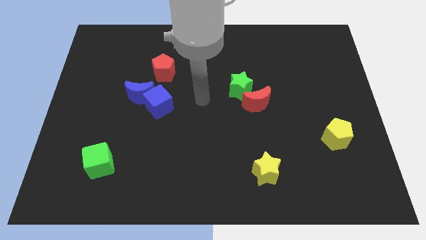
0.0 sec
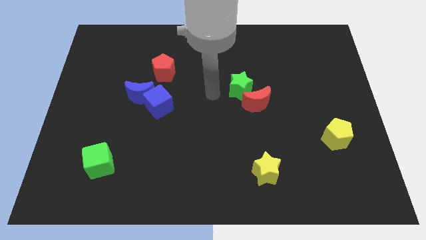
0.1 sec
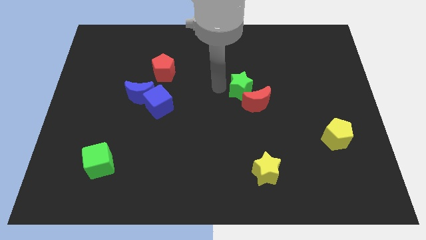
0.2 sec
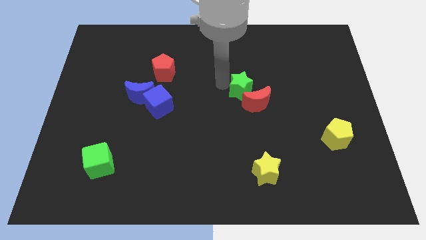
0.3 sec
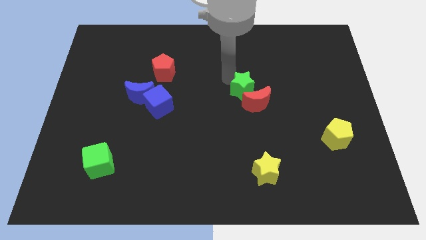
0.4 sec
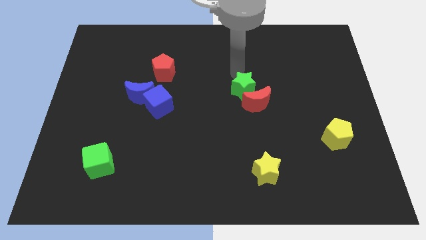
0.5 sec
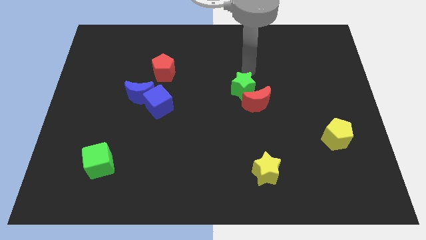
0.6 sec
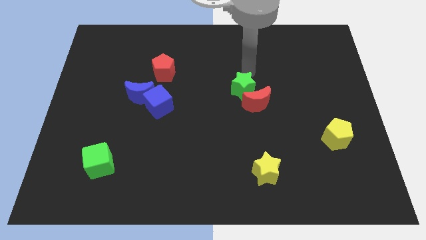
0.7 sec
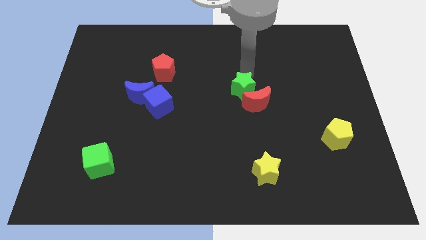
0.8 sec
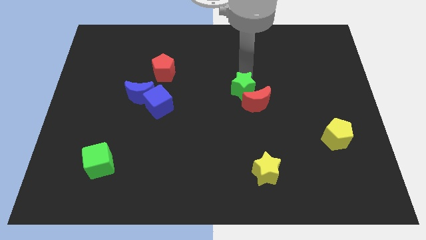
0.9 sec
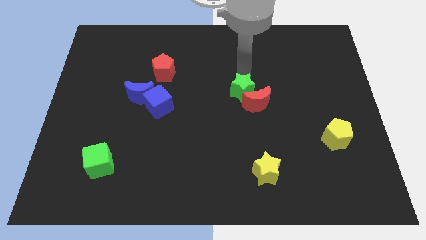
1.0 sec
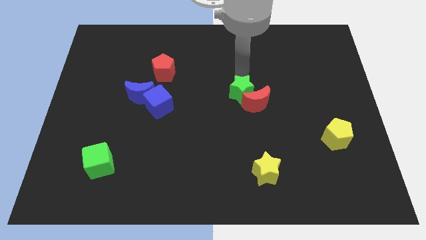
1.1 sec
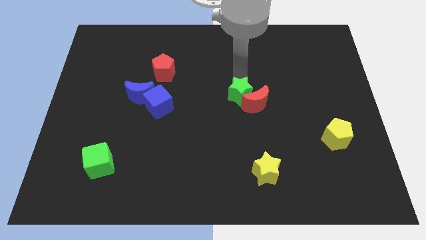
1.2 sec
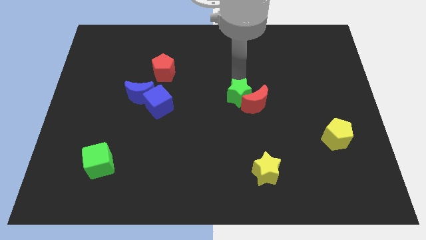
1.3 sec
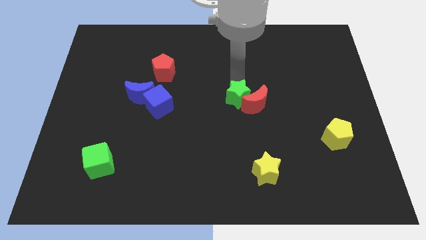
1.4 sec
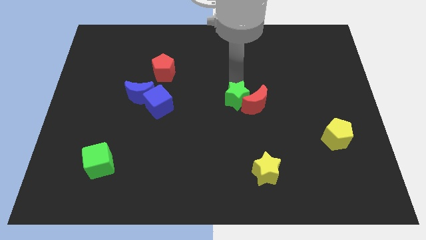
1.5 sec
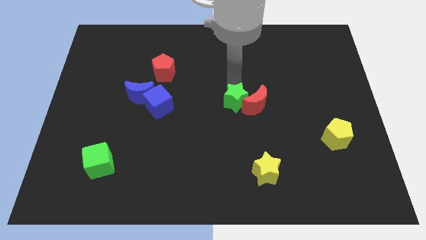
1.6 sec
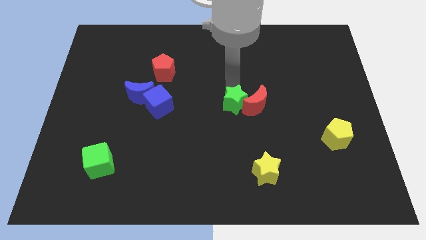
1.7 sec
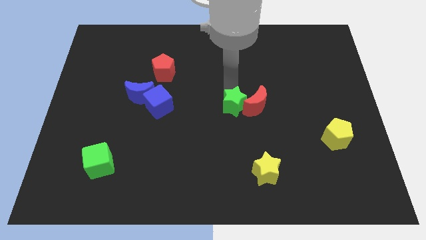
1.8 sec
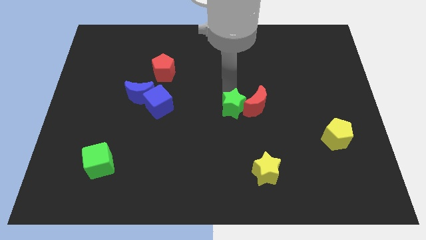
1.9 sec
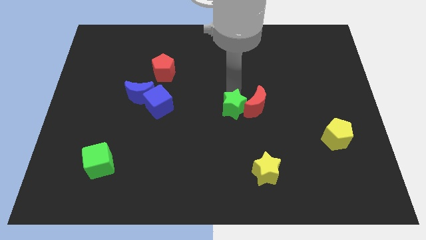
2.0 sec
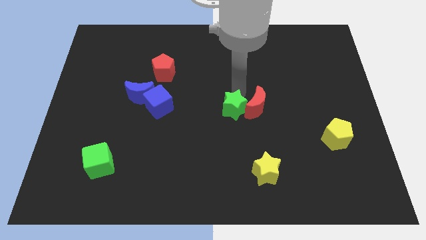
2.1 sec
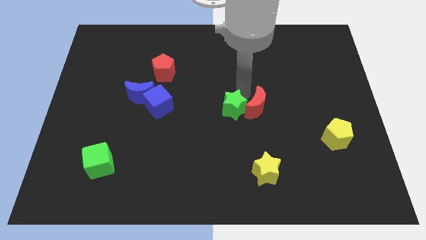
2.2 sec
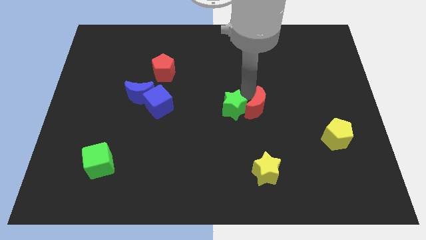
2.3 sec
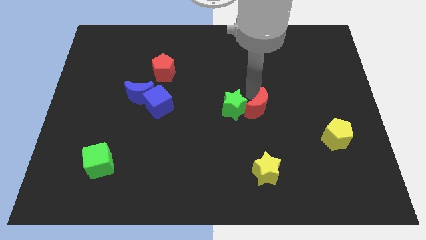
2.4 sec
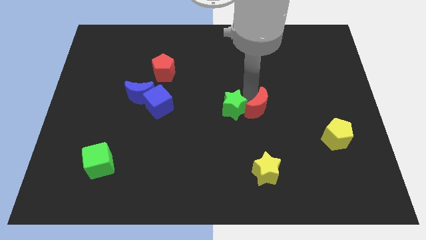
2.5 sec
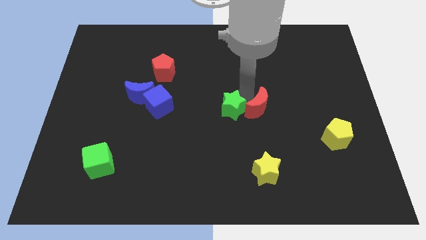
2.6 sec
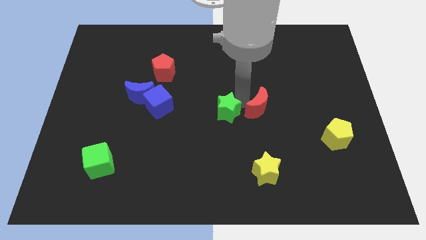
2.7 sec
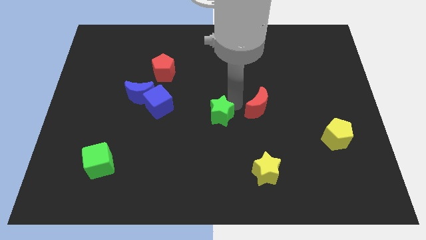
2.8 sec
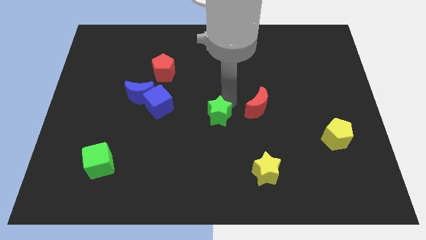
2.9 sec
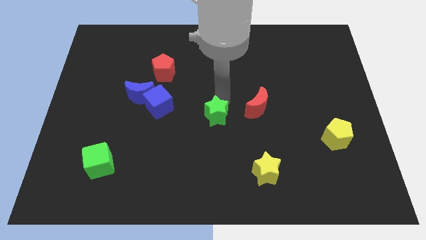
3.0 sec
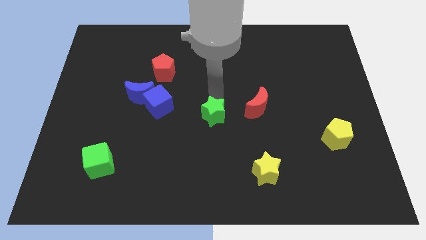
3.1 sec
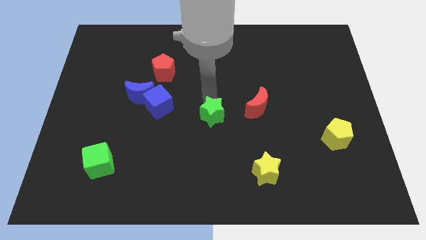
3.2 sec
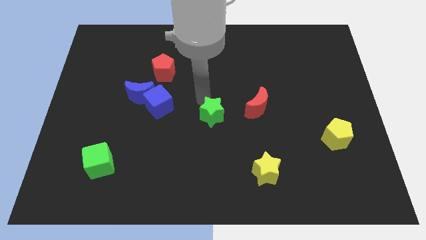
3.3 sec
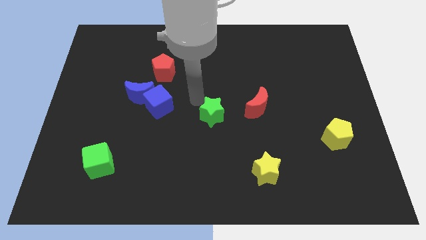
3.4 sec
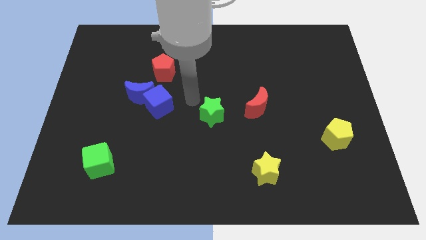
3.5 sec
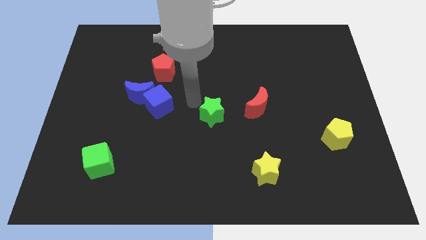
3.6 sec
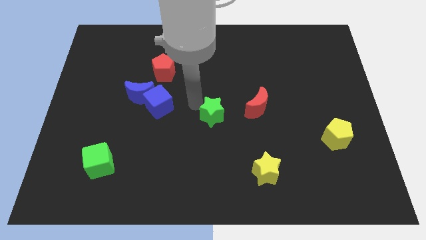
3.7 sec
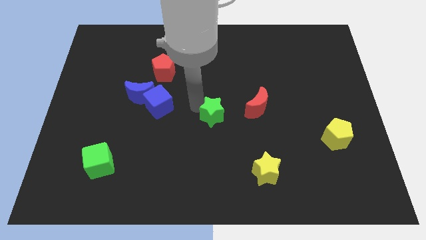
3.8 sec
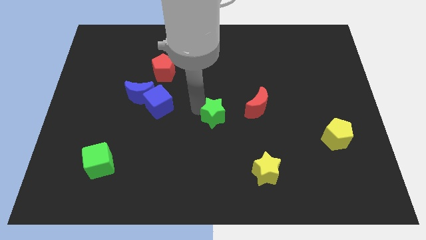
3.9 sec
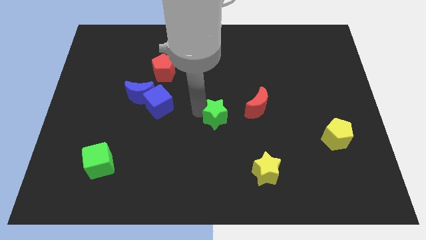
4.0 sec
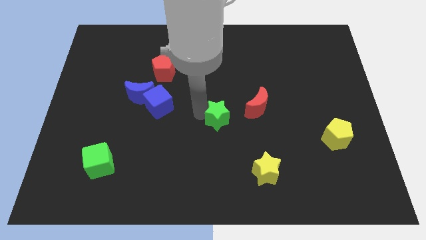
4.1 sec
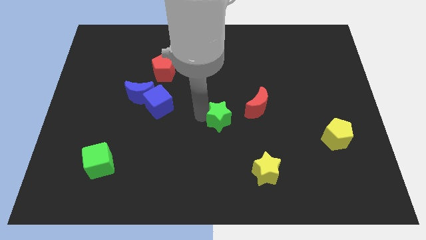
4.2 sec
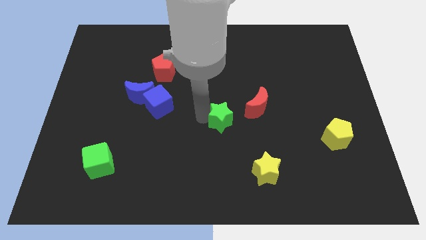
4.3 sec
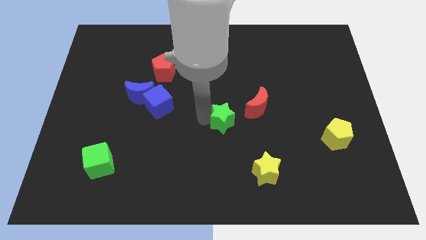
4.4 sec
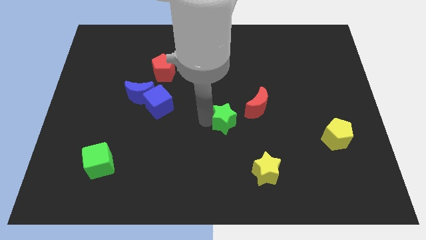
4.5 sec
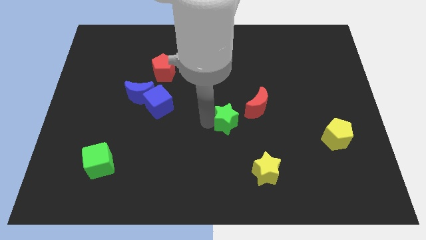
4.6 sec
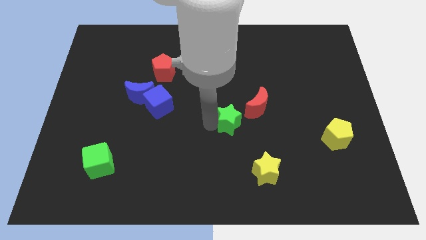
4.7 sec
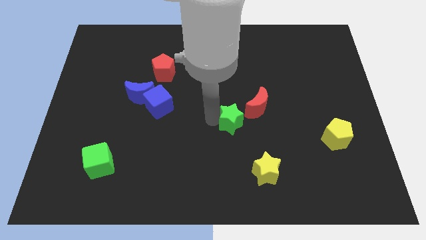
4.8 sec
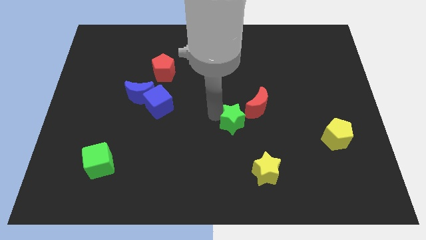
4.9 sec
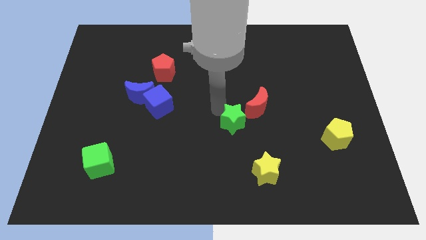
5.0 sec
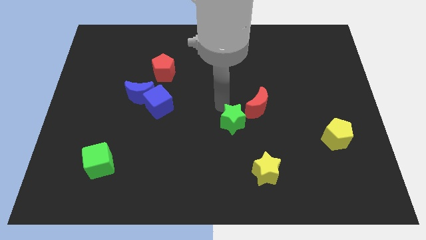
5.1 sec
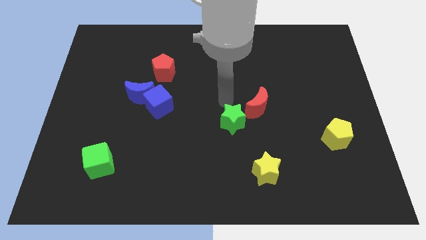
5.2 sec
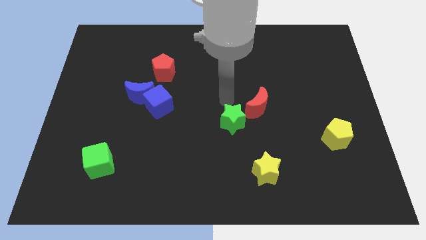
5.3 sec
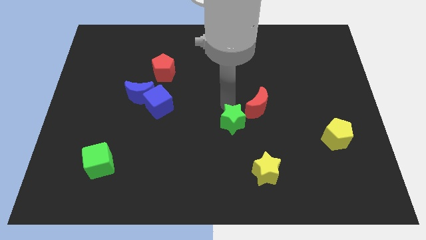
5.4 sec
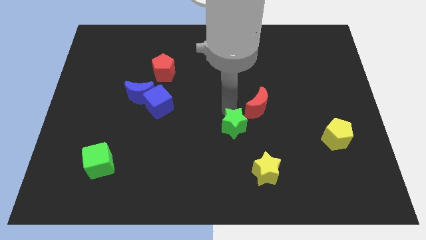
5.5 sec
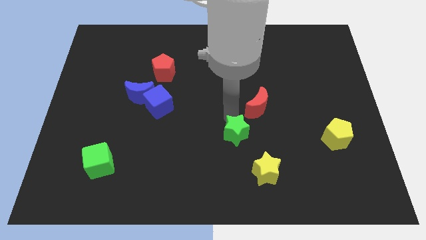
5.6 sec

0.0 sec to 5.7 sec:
slide the green star to the top left side of the yellow star

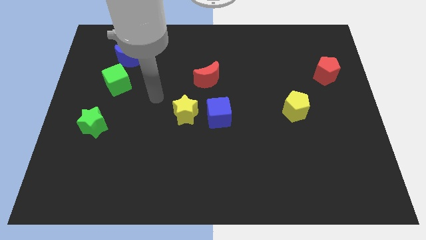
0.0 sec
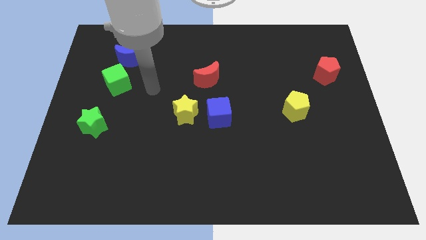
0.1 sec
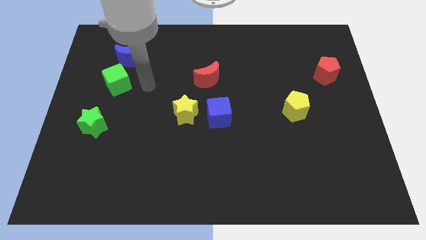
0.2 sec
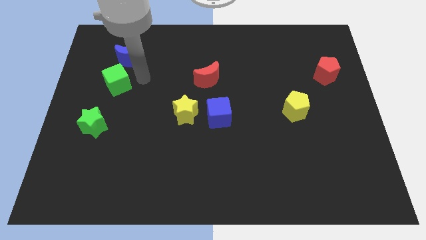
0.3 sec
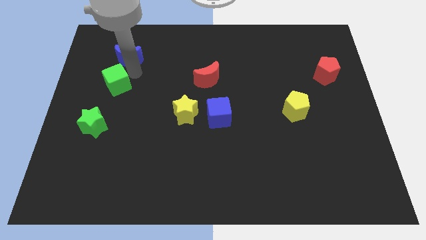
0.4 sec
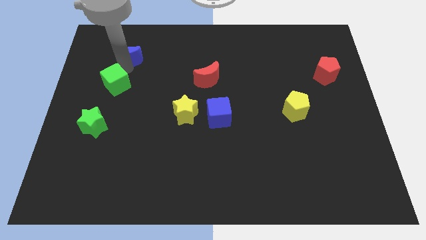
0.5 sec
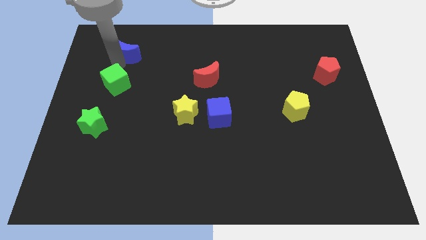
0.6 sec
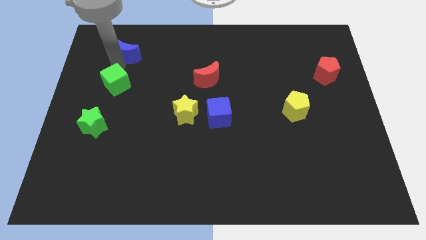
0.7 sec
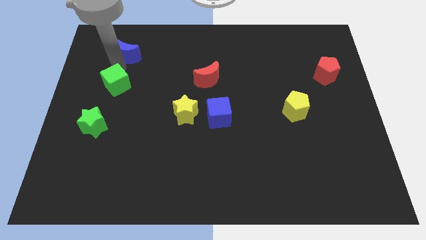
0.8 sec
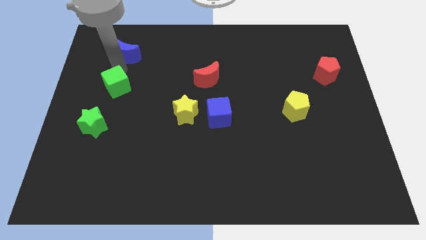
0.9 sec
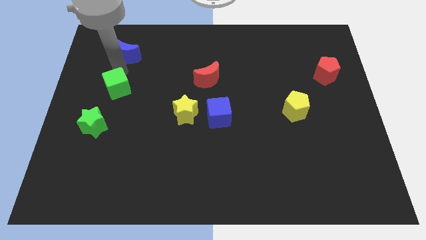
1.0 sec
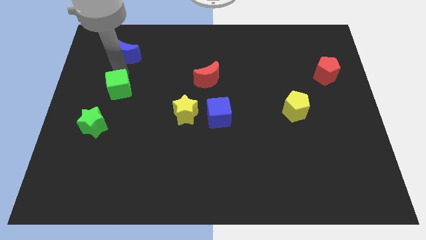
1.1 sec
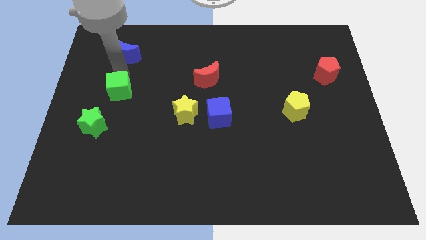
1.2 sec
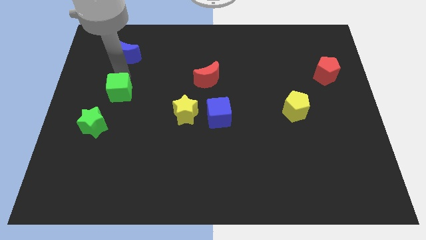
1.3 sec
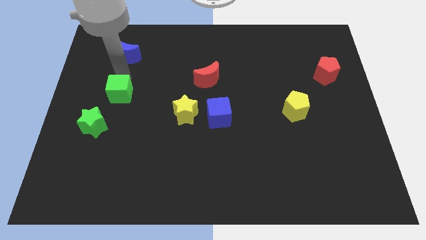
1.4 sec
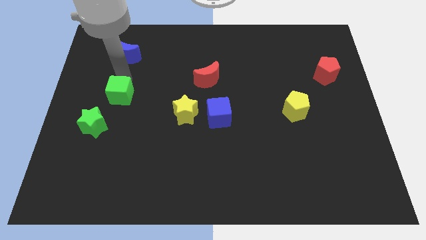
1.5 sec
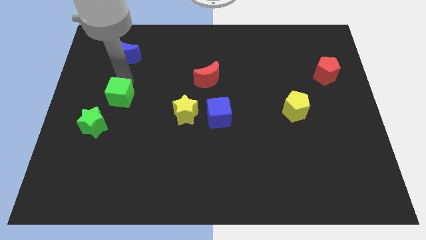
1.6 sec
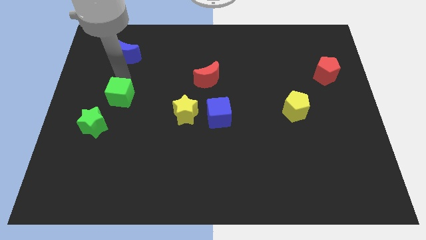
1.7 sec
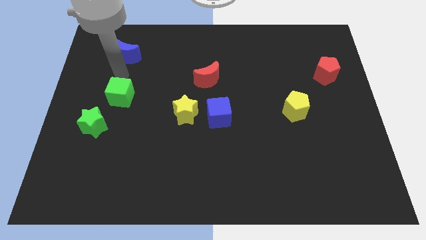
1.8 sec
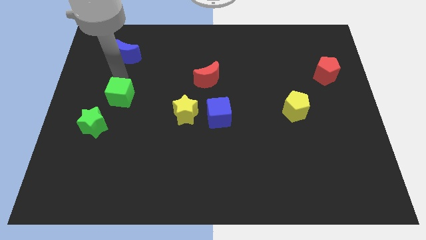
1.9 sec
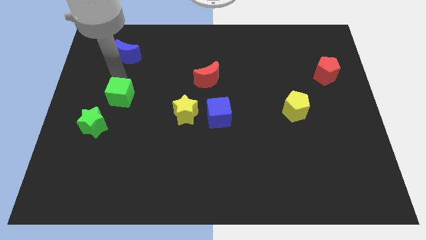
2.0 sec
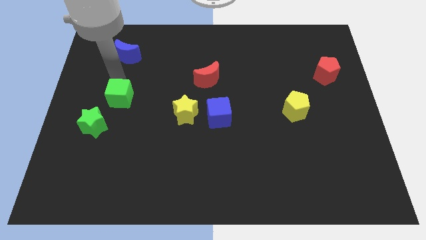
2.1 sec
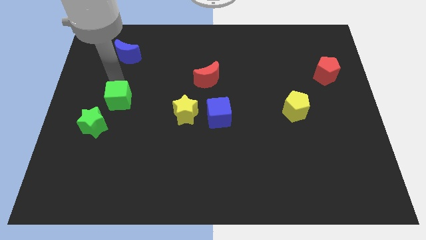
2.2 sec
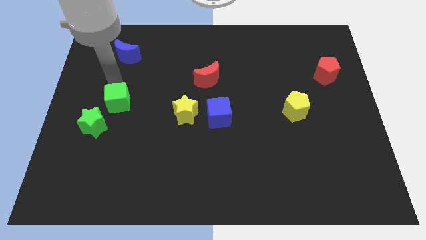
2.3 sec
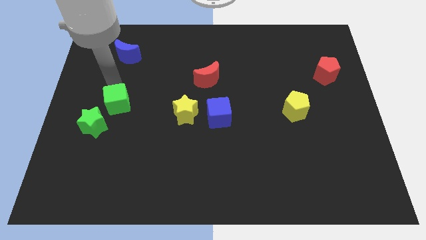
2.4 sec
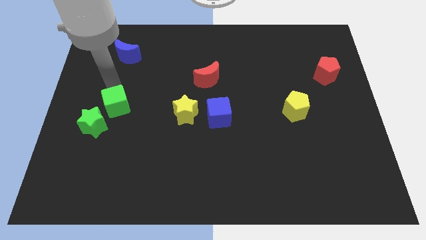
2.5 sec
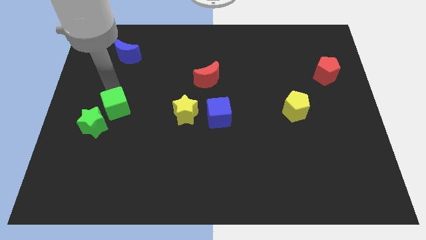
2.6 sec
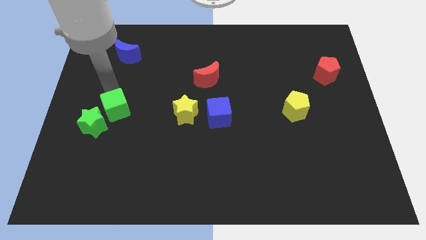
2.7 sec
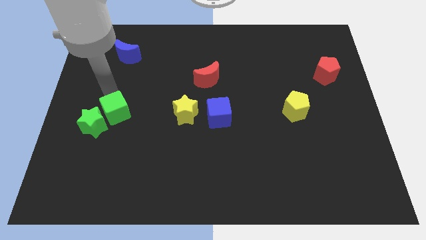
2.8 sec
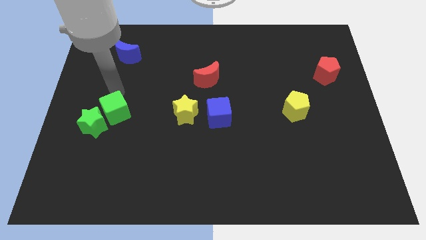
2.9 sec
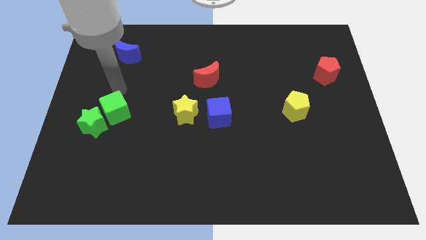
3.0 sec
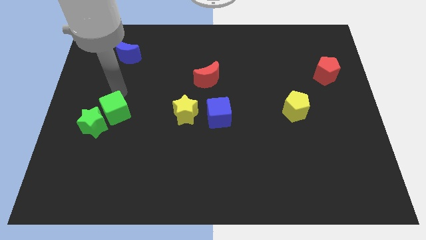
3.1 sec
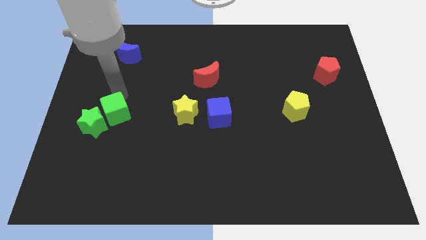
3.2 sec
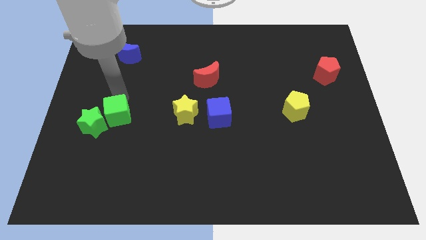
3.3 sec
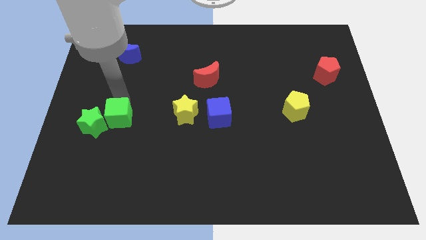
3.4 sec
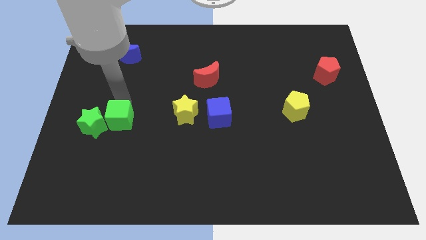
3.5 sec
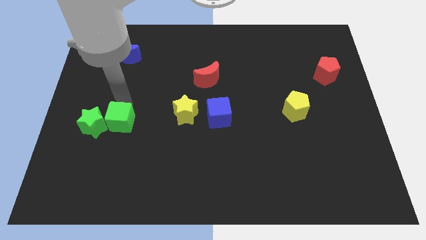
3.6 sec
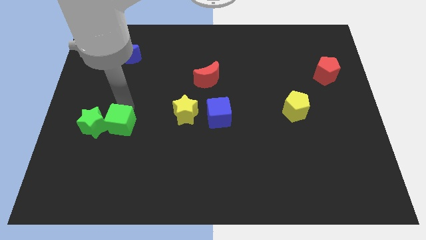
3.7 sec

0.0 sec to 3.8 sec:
push the green cube to the bottom right of the green star
